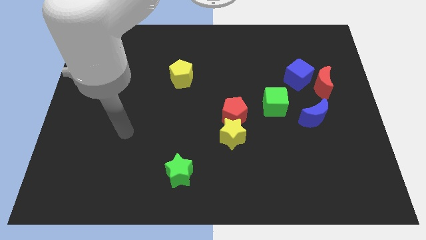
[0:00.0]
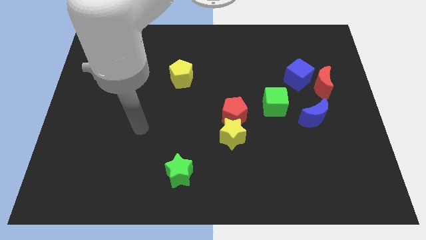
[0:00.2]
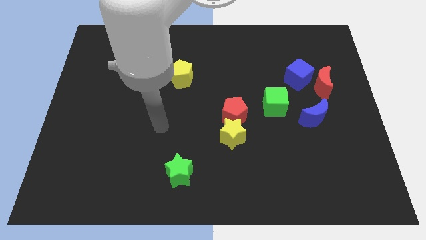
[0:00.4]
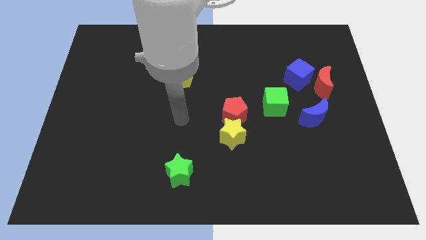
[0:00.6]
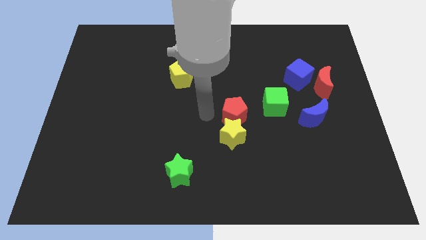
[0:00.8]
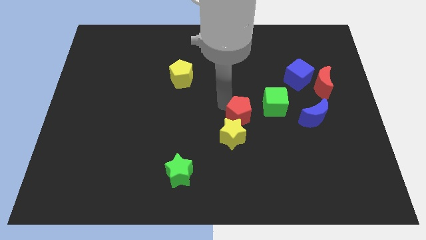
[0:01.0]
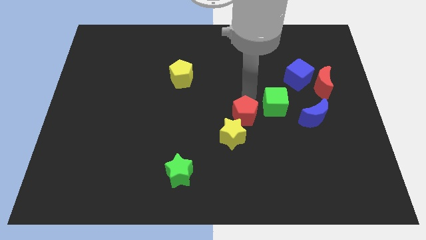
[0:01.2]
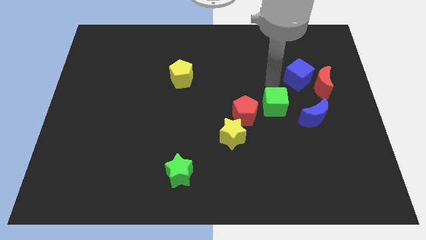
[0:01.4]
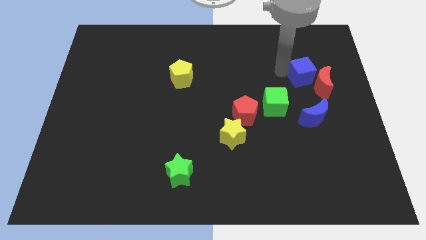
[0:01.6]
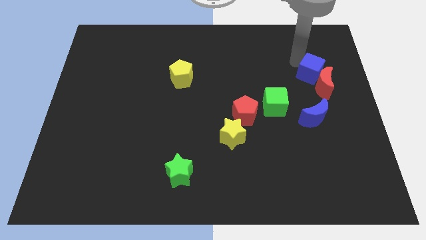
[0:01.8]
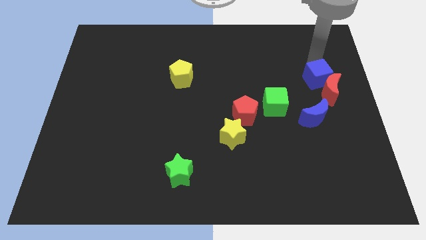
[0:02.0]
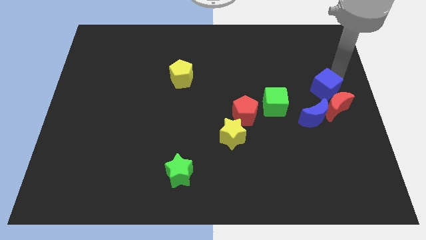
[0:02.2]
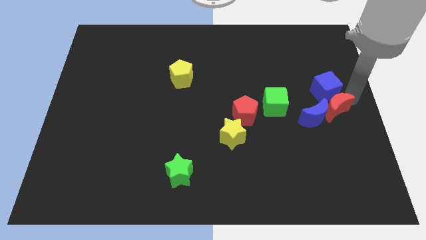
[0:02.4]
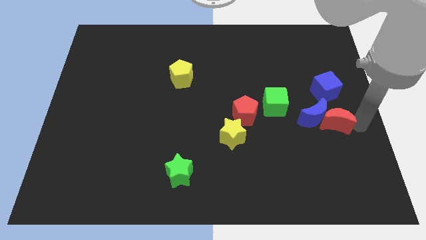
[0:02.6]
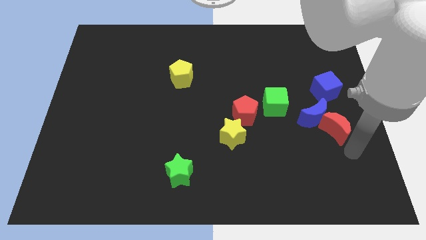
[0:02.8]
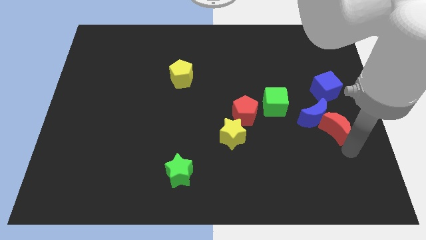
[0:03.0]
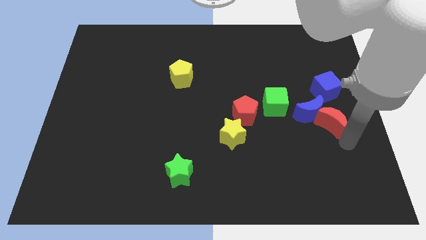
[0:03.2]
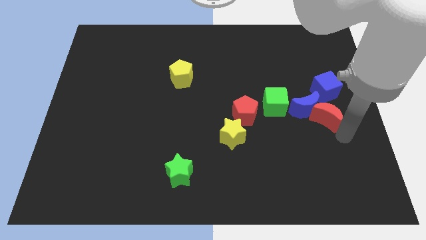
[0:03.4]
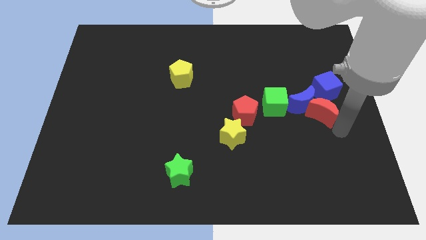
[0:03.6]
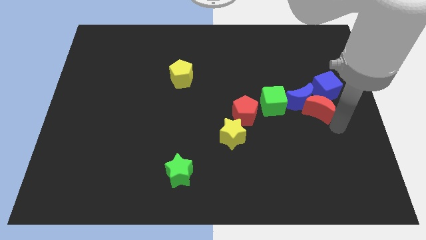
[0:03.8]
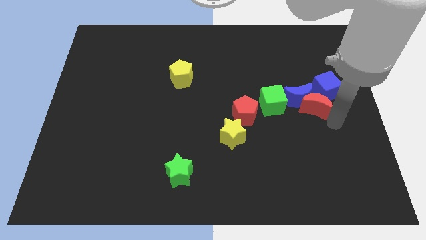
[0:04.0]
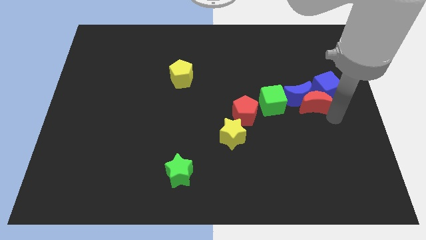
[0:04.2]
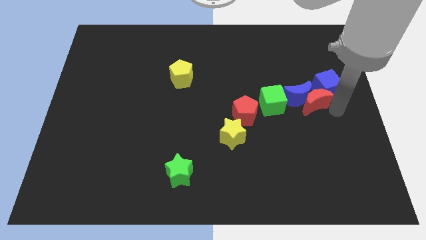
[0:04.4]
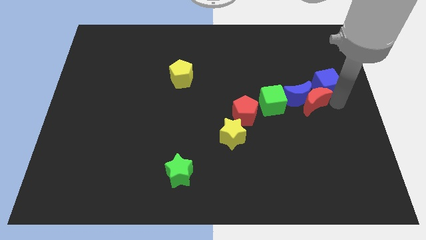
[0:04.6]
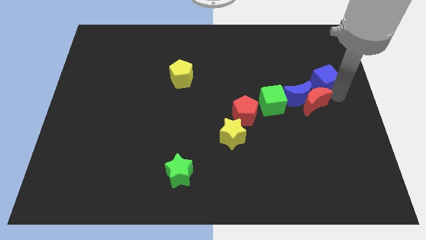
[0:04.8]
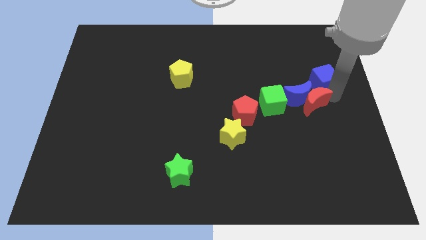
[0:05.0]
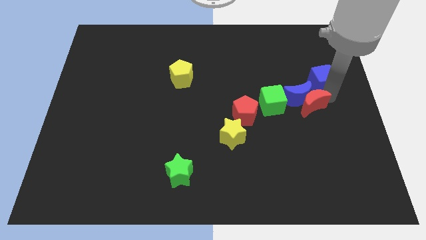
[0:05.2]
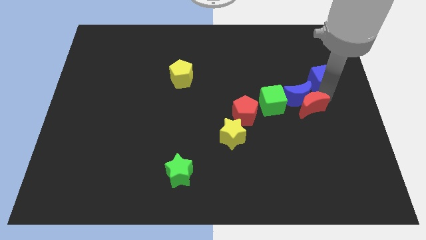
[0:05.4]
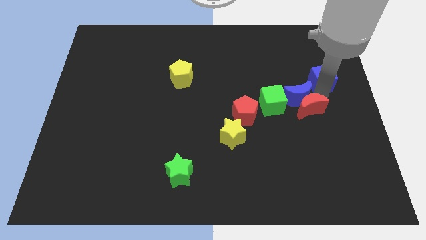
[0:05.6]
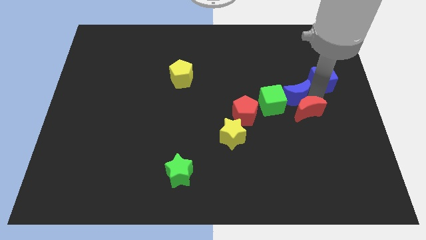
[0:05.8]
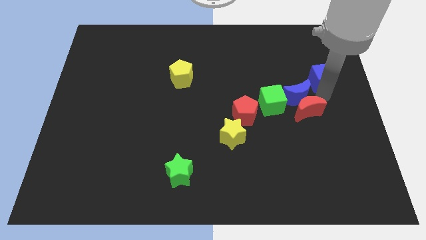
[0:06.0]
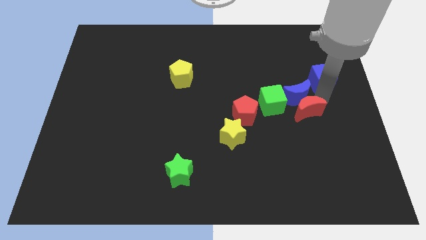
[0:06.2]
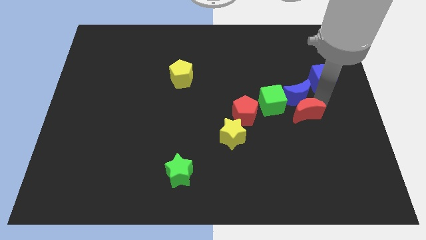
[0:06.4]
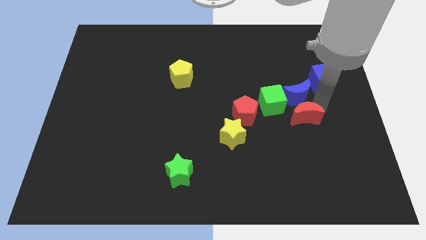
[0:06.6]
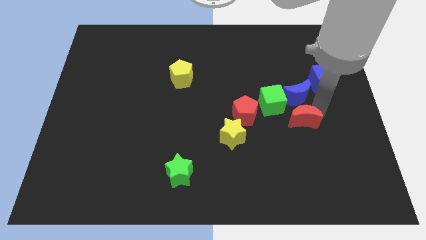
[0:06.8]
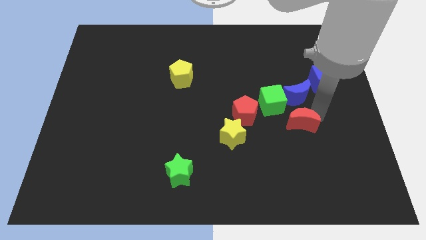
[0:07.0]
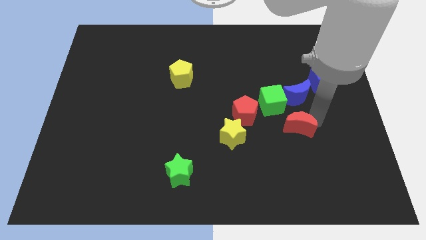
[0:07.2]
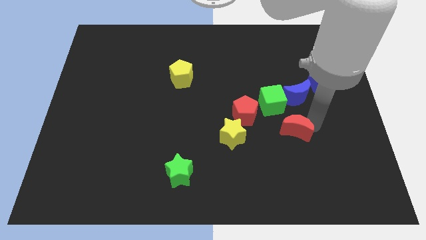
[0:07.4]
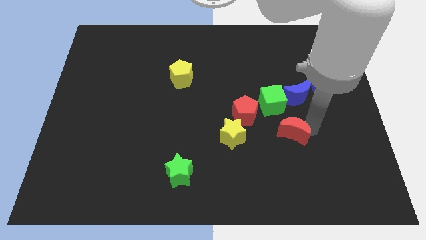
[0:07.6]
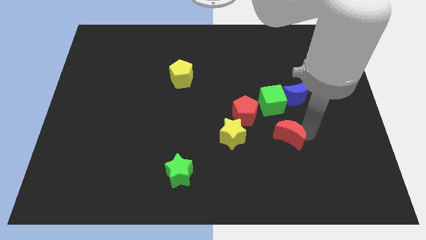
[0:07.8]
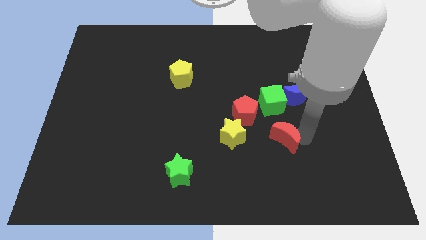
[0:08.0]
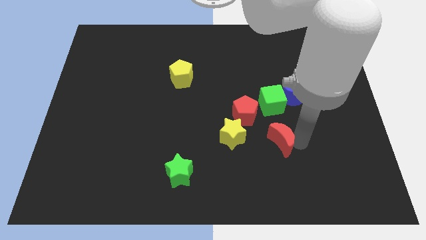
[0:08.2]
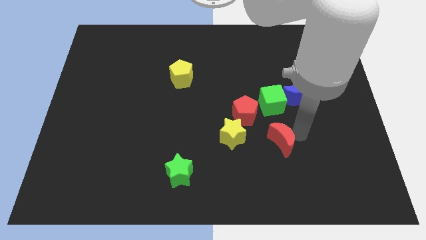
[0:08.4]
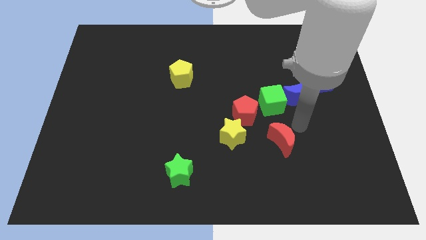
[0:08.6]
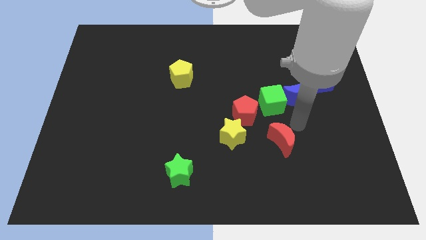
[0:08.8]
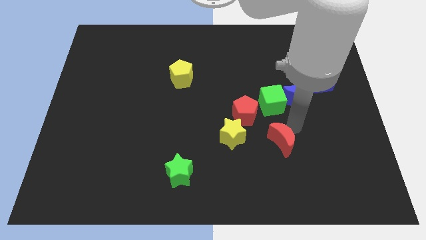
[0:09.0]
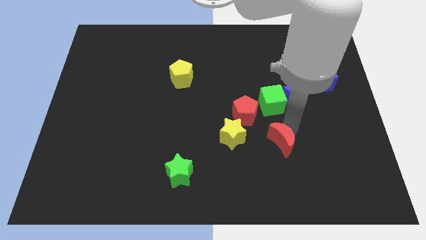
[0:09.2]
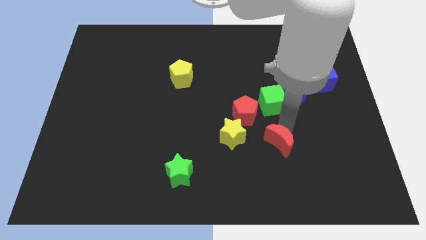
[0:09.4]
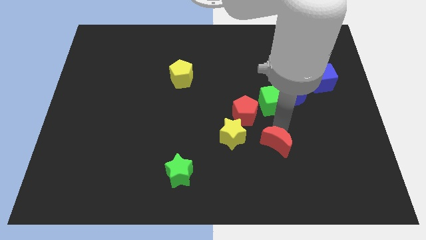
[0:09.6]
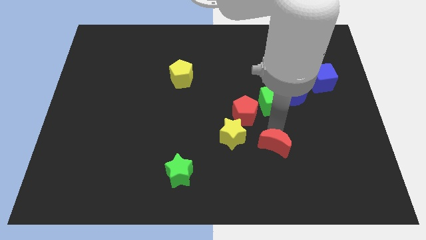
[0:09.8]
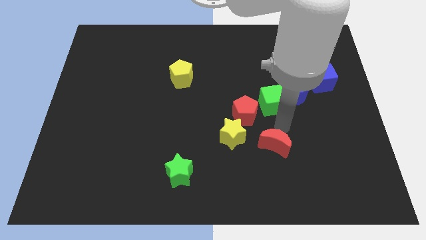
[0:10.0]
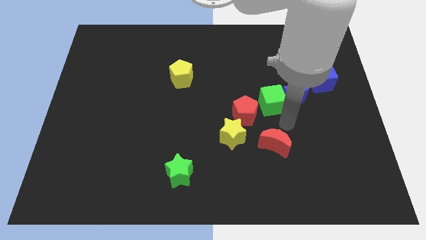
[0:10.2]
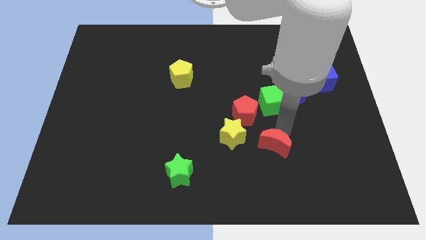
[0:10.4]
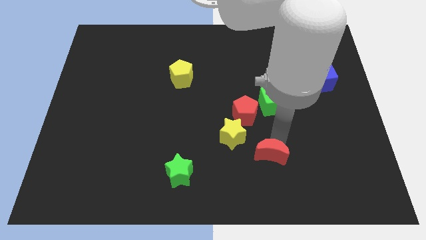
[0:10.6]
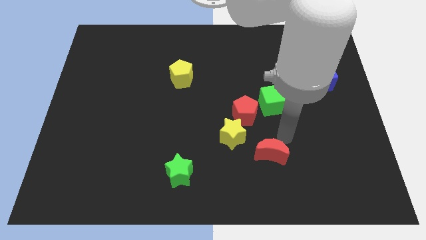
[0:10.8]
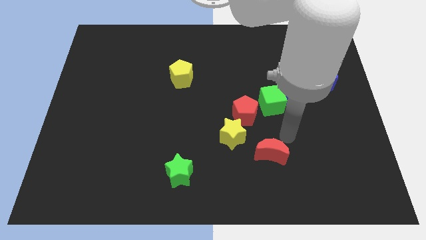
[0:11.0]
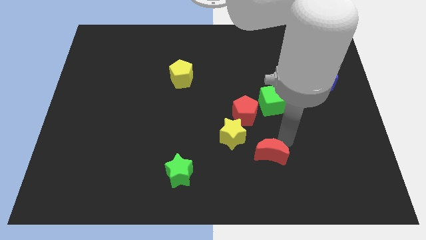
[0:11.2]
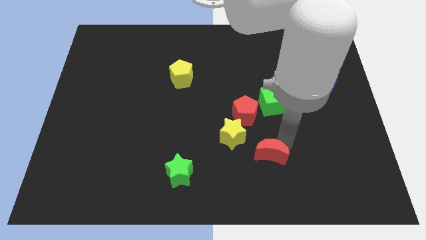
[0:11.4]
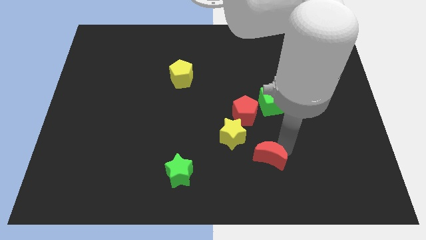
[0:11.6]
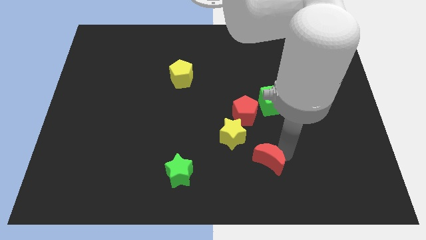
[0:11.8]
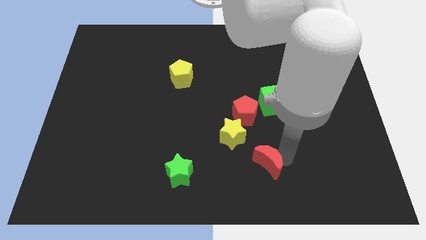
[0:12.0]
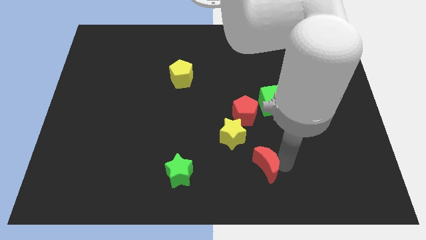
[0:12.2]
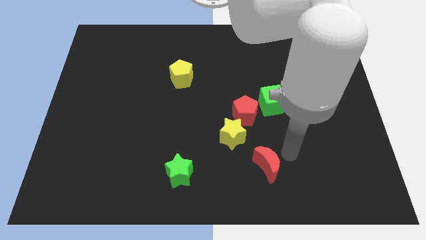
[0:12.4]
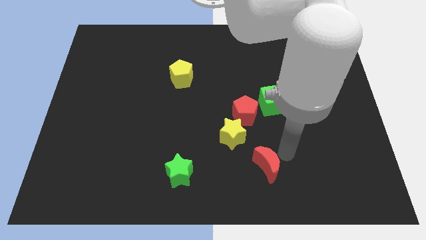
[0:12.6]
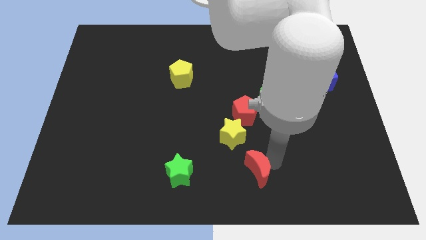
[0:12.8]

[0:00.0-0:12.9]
put the red moon to the bottom

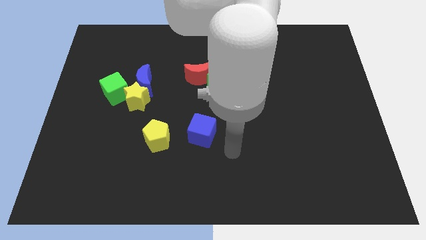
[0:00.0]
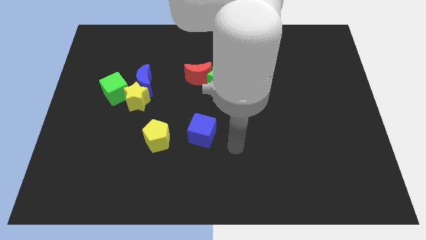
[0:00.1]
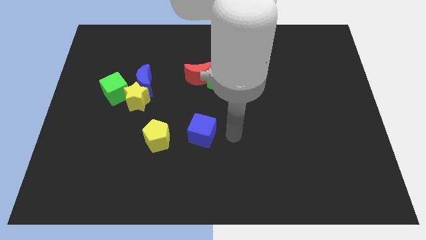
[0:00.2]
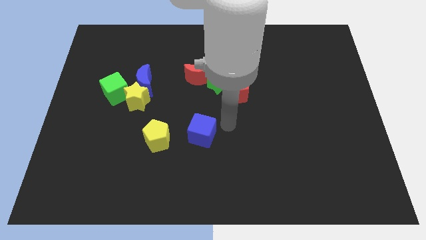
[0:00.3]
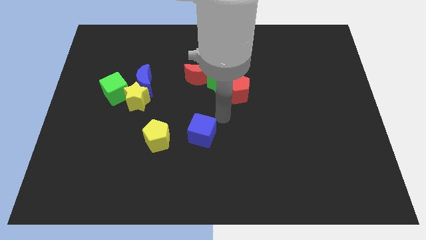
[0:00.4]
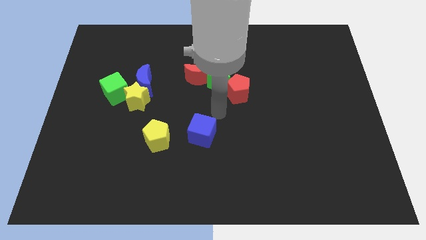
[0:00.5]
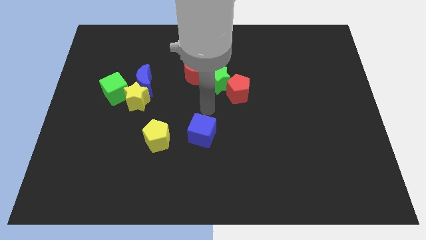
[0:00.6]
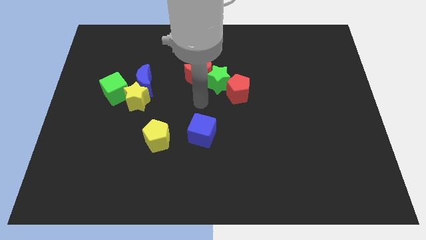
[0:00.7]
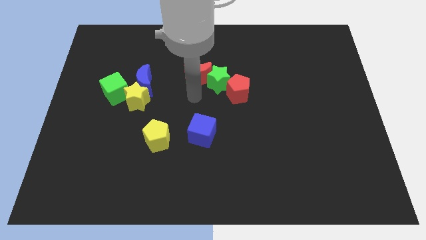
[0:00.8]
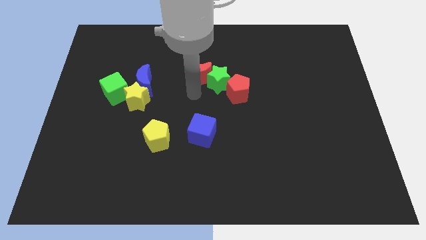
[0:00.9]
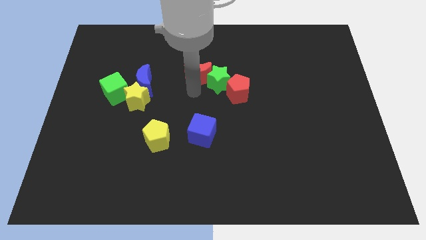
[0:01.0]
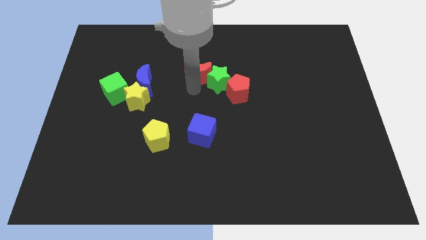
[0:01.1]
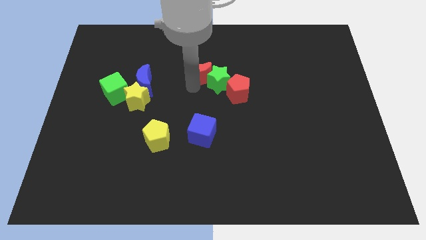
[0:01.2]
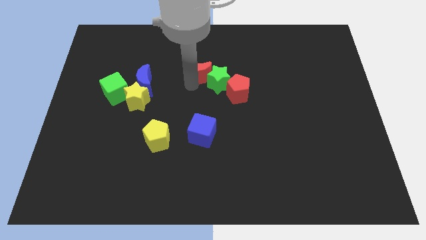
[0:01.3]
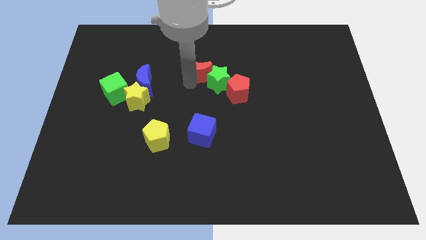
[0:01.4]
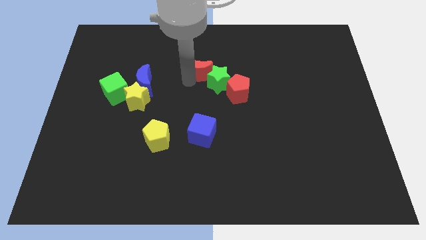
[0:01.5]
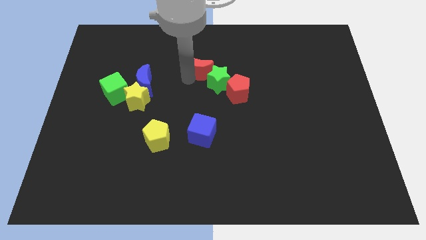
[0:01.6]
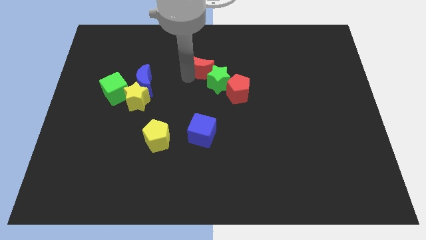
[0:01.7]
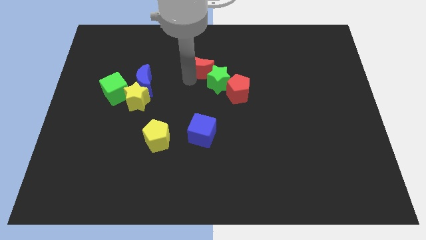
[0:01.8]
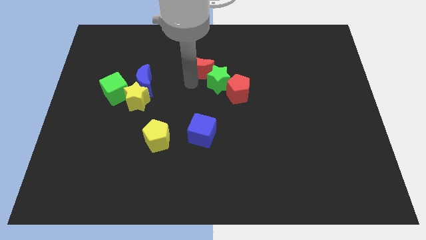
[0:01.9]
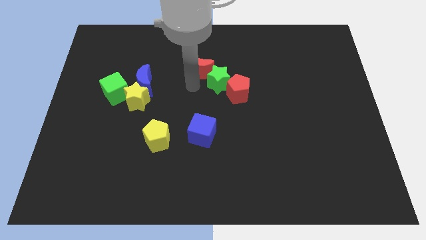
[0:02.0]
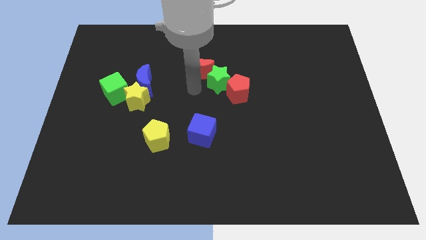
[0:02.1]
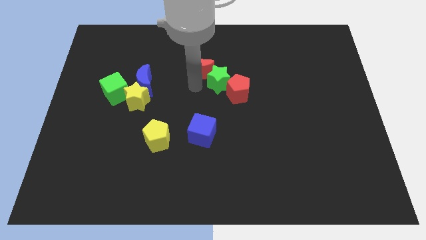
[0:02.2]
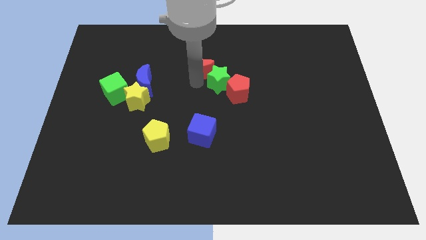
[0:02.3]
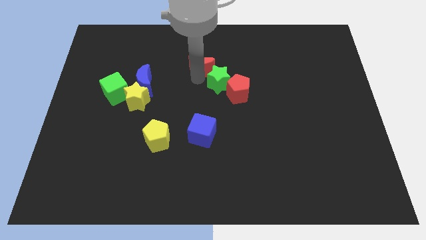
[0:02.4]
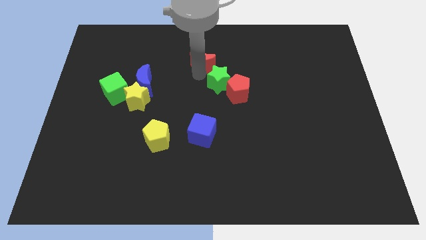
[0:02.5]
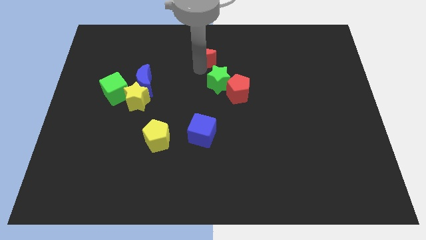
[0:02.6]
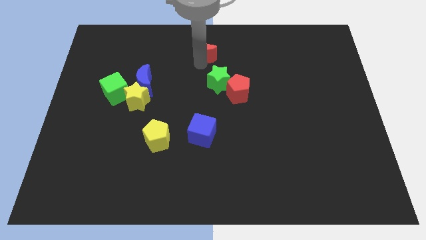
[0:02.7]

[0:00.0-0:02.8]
move the red moon to the top side
